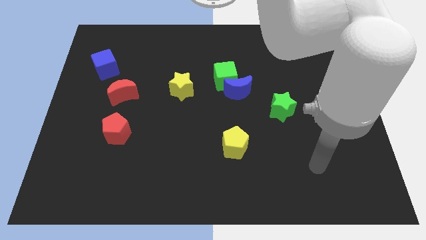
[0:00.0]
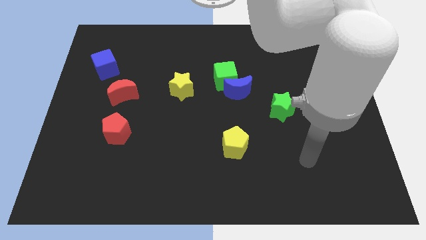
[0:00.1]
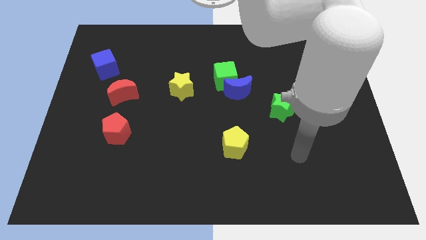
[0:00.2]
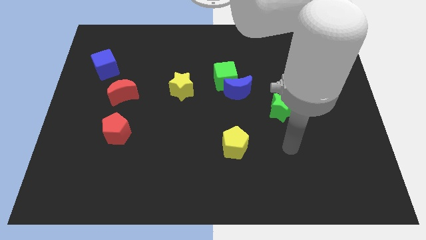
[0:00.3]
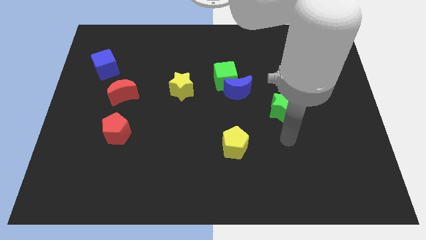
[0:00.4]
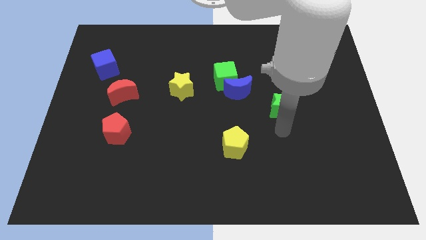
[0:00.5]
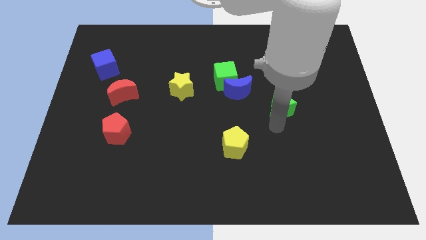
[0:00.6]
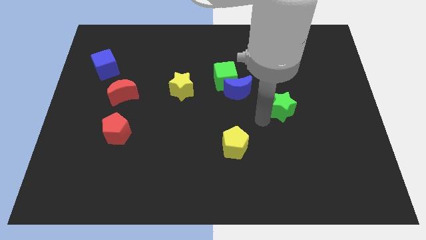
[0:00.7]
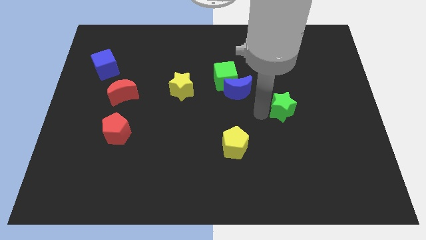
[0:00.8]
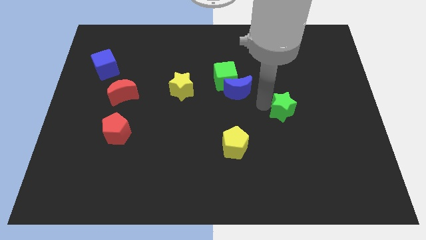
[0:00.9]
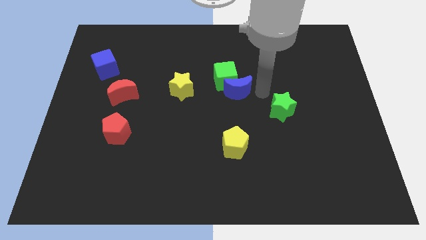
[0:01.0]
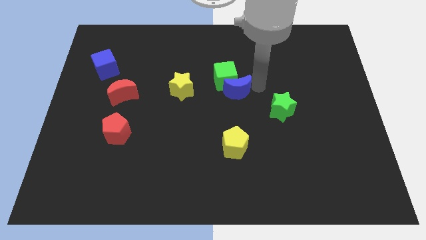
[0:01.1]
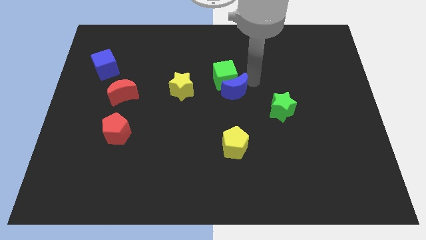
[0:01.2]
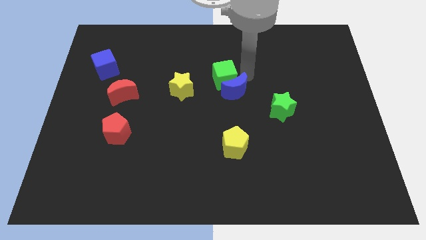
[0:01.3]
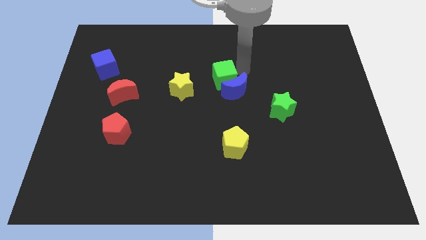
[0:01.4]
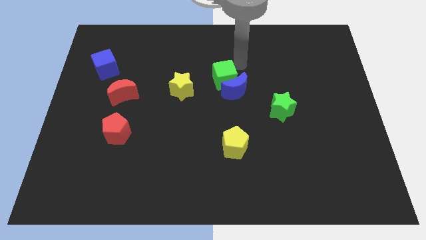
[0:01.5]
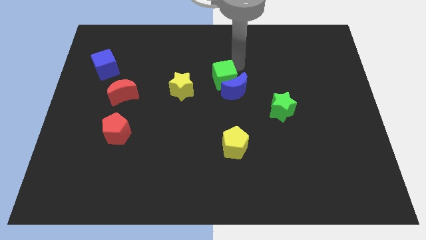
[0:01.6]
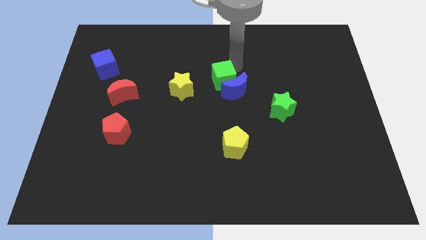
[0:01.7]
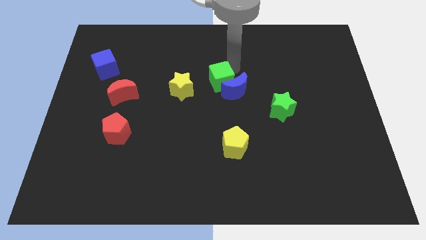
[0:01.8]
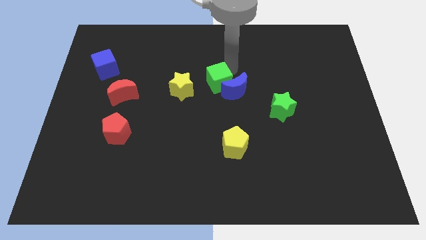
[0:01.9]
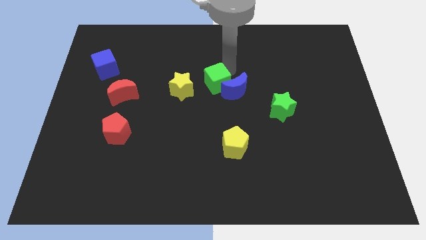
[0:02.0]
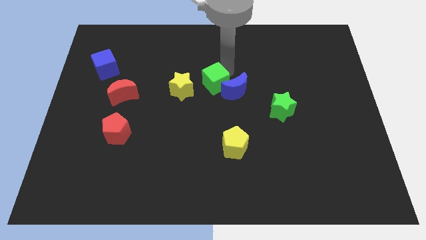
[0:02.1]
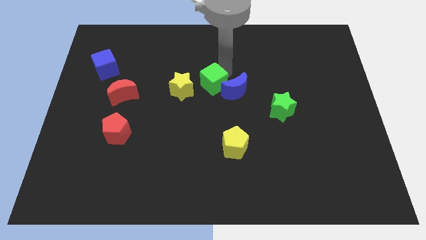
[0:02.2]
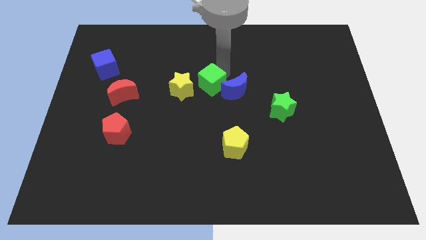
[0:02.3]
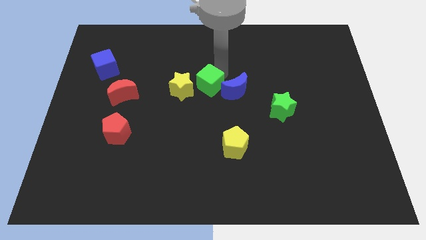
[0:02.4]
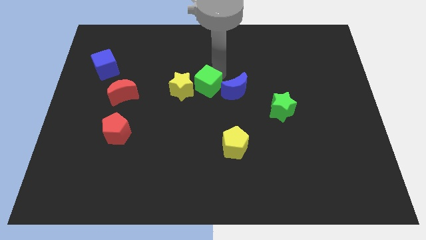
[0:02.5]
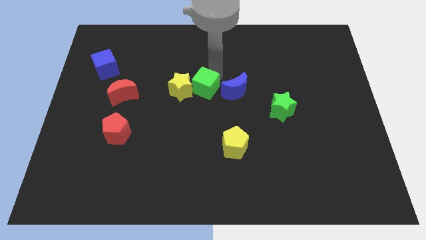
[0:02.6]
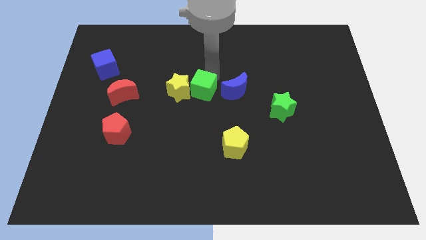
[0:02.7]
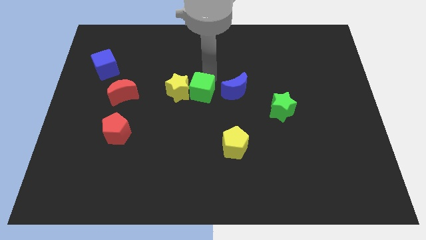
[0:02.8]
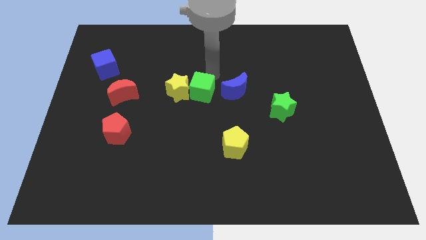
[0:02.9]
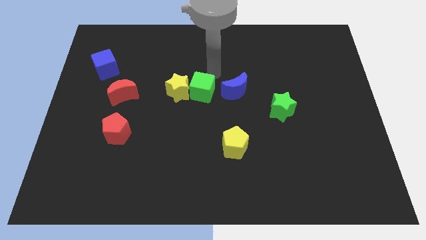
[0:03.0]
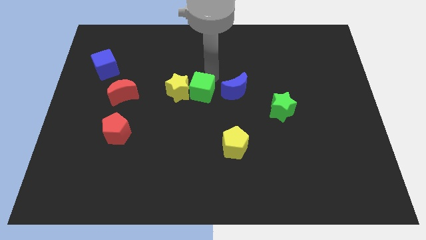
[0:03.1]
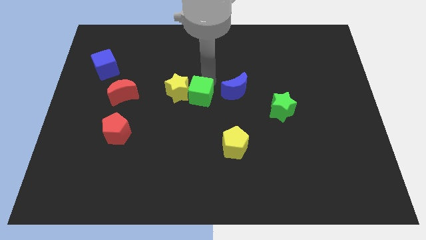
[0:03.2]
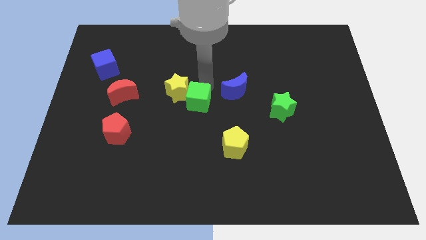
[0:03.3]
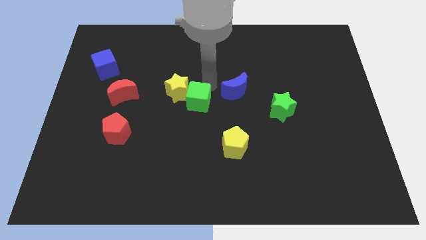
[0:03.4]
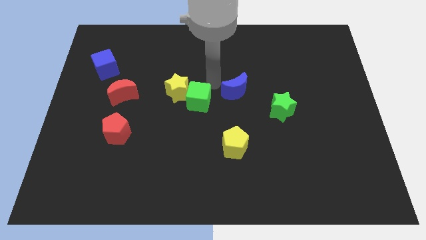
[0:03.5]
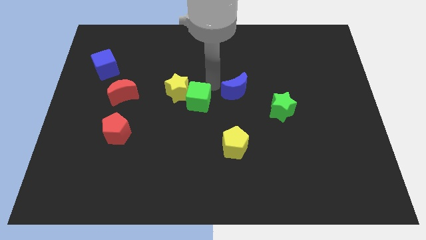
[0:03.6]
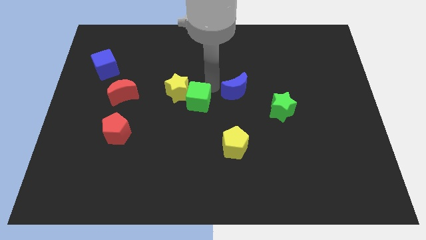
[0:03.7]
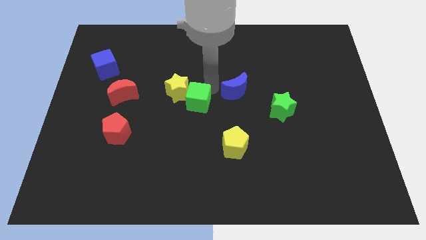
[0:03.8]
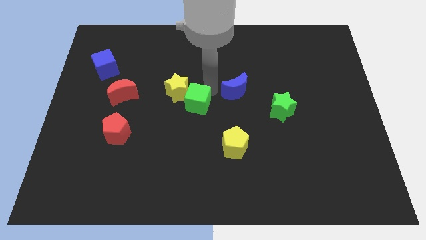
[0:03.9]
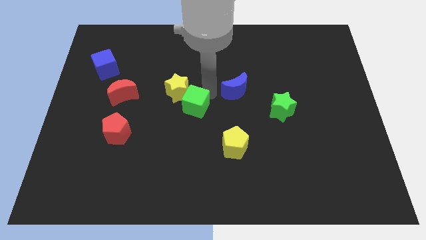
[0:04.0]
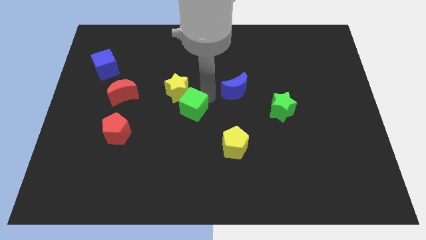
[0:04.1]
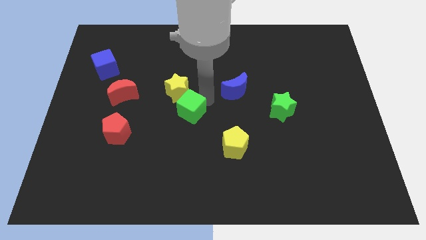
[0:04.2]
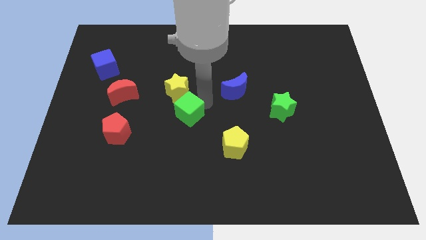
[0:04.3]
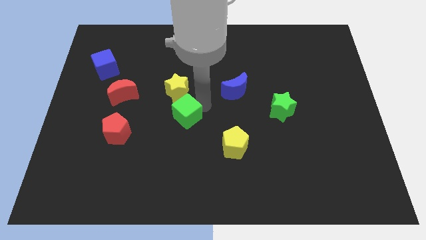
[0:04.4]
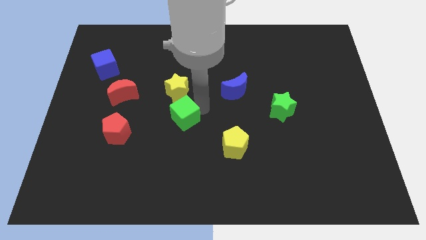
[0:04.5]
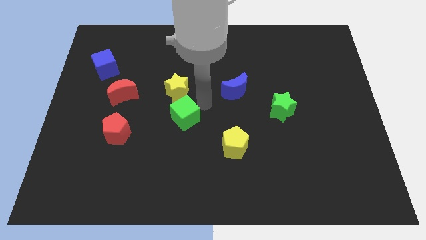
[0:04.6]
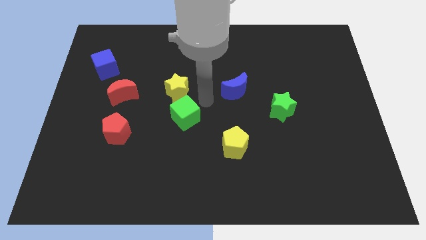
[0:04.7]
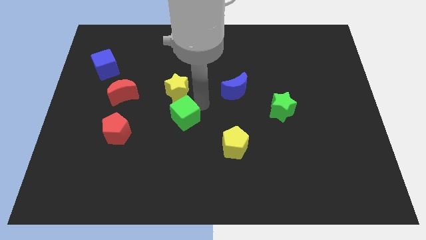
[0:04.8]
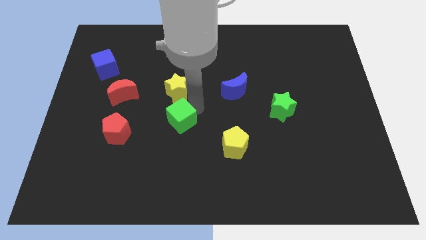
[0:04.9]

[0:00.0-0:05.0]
push the green cube just right of the red pentagon

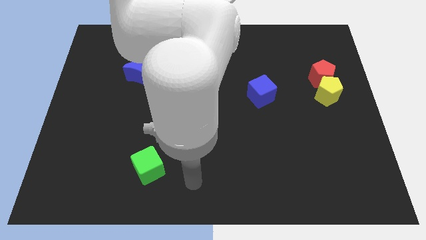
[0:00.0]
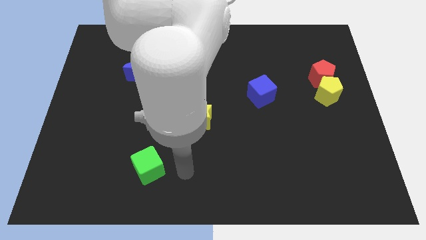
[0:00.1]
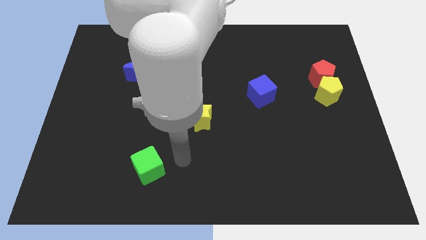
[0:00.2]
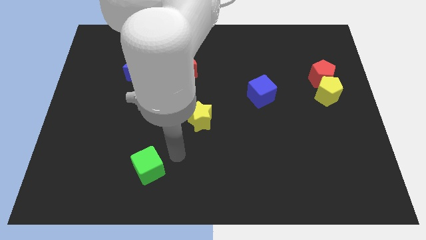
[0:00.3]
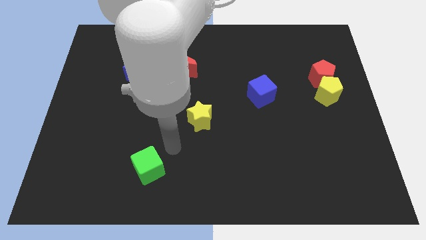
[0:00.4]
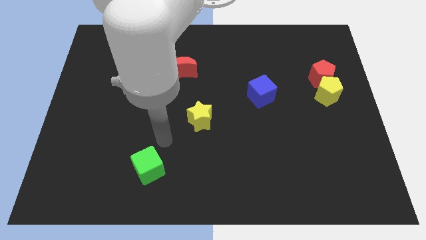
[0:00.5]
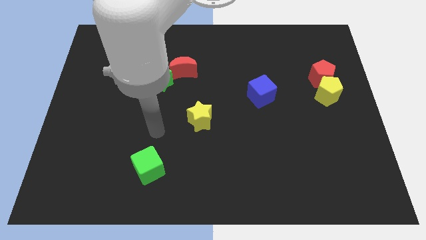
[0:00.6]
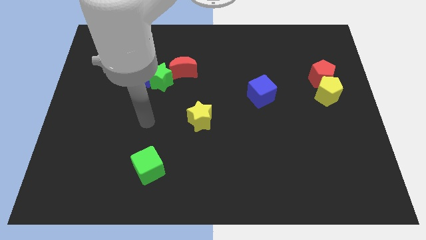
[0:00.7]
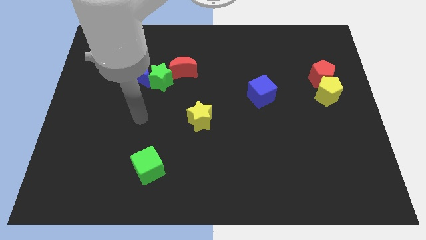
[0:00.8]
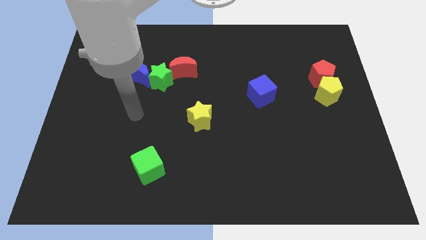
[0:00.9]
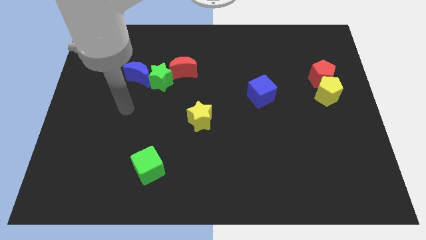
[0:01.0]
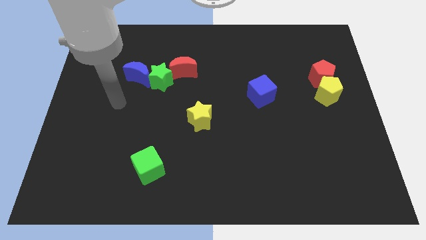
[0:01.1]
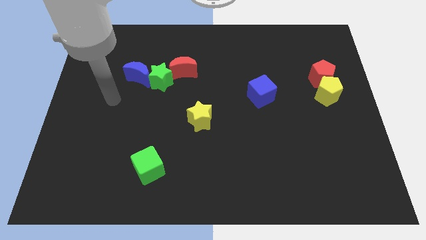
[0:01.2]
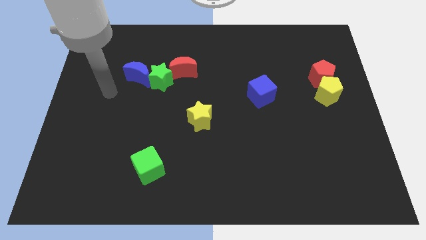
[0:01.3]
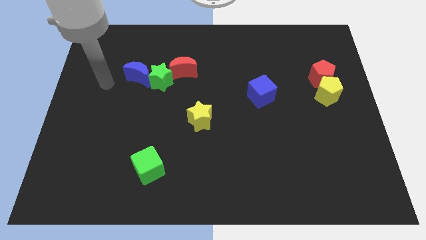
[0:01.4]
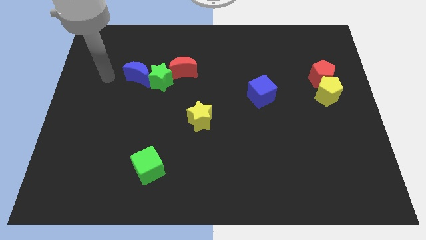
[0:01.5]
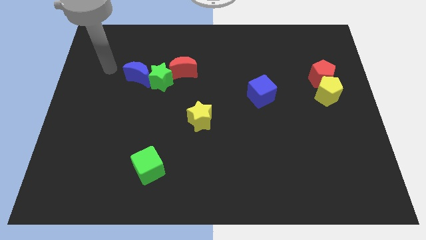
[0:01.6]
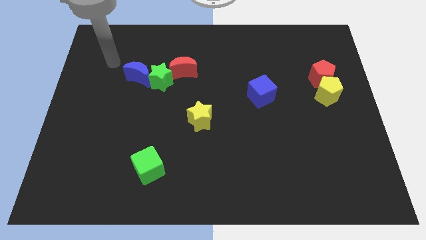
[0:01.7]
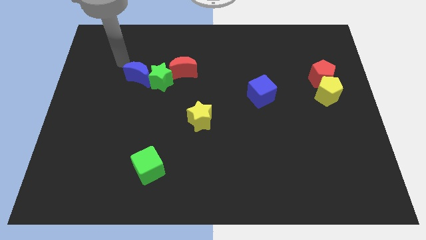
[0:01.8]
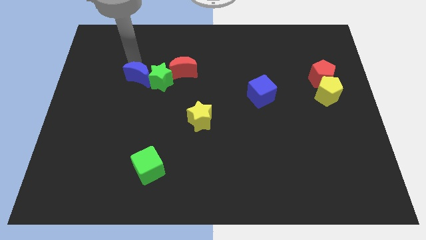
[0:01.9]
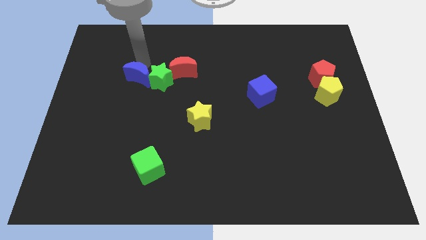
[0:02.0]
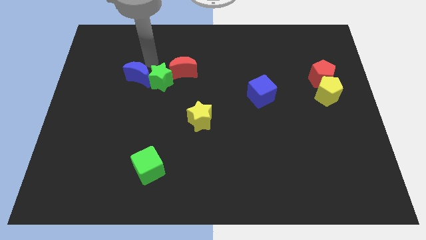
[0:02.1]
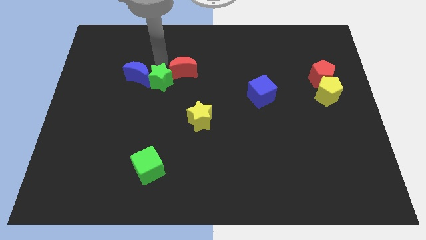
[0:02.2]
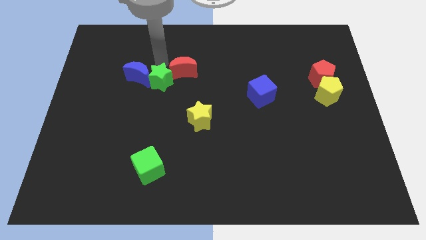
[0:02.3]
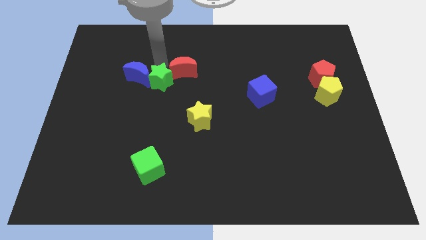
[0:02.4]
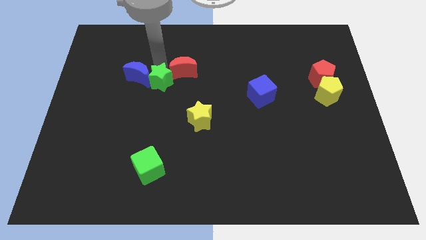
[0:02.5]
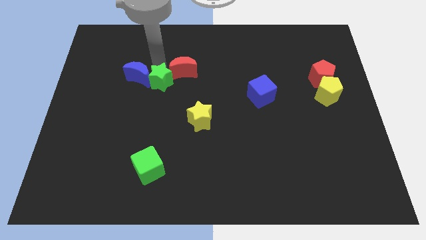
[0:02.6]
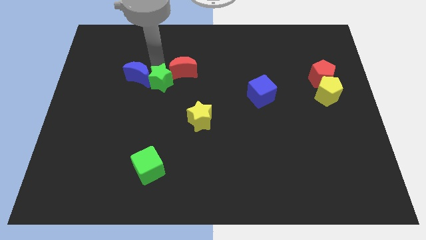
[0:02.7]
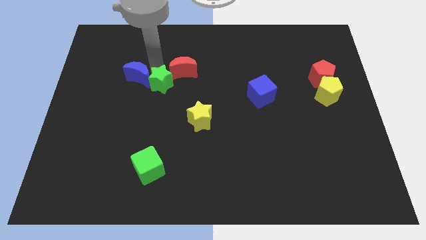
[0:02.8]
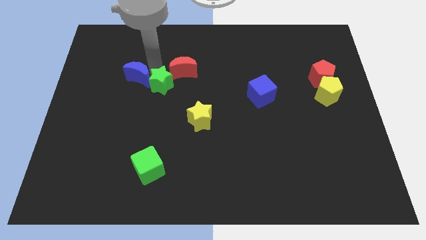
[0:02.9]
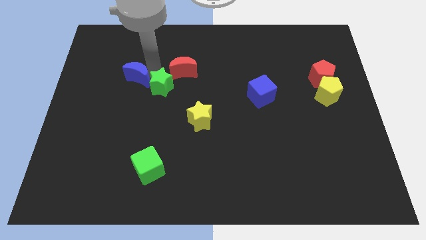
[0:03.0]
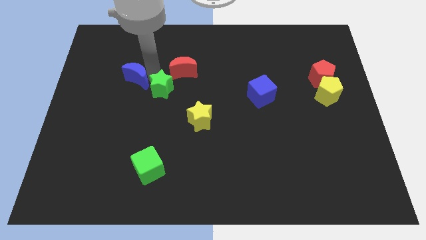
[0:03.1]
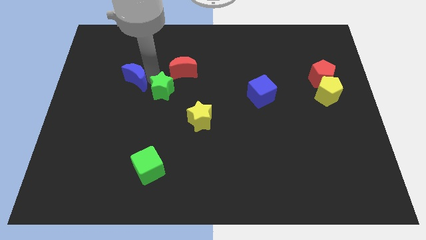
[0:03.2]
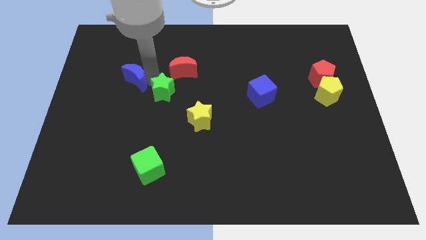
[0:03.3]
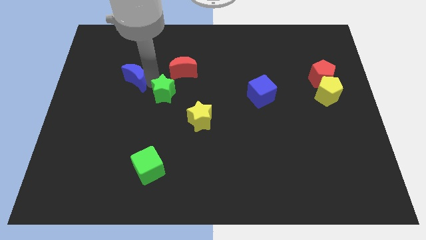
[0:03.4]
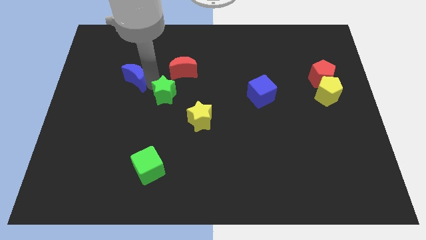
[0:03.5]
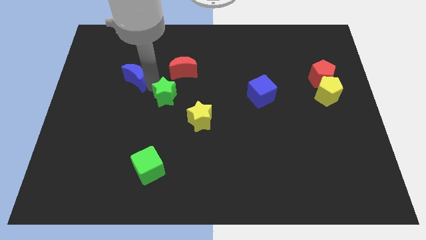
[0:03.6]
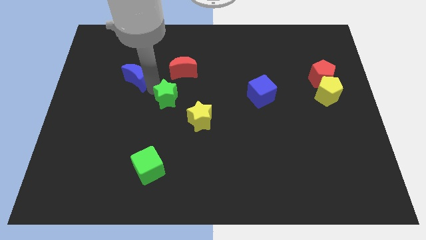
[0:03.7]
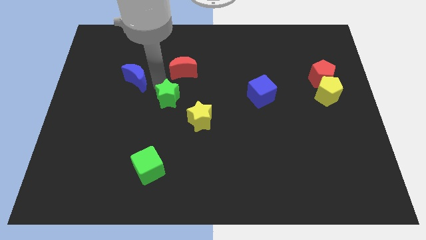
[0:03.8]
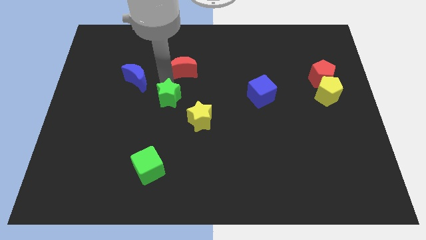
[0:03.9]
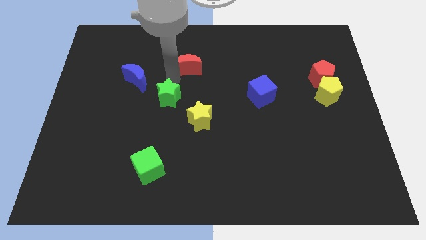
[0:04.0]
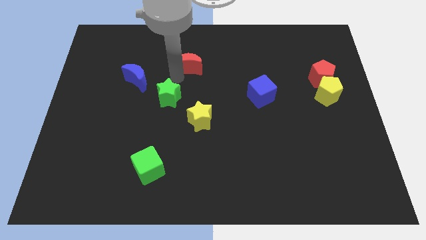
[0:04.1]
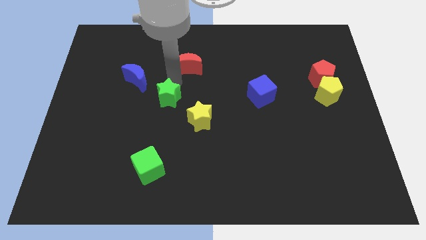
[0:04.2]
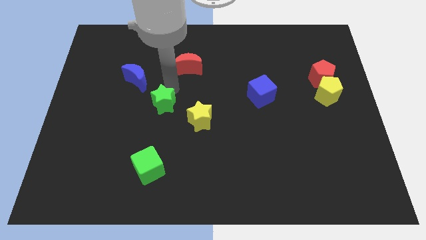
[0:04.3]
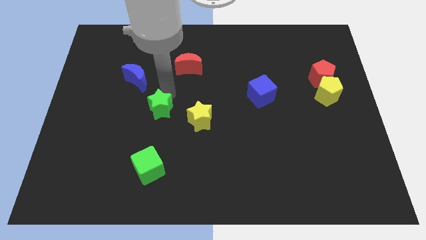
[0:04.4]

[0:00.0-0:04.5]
push the green star to the top side of the green cube
